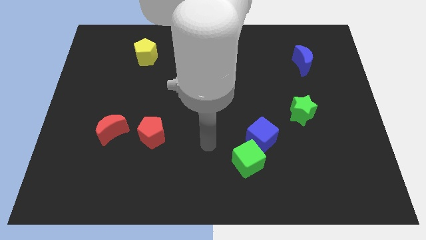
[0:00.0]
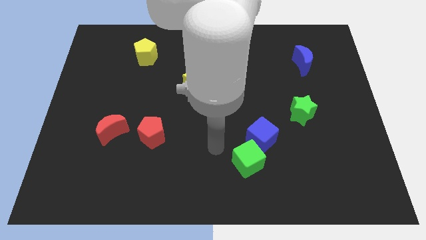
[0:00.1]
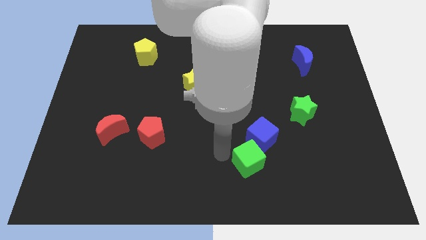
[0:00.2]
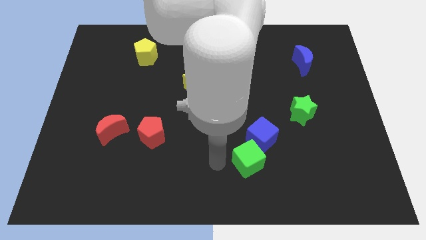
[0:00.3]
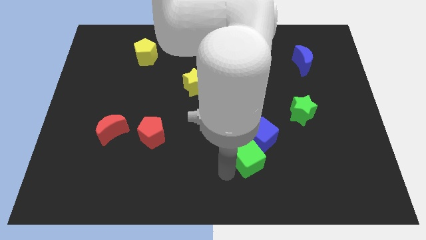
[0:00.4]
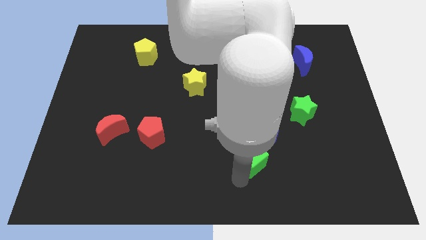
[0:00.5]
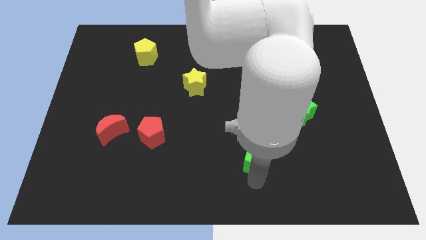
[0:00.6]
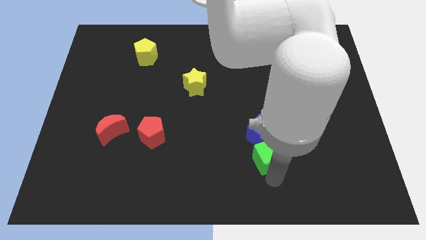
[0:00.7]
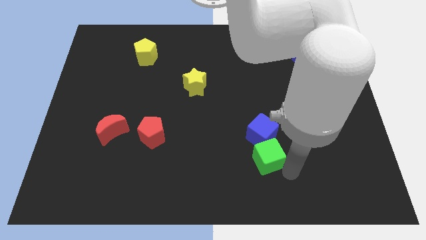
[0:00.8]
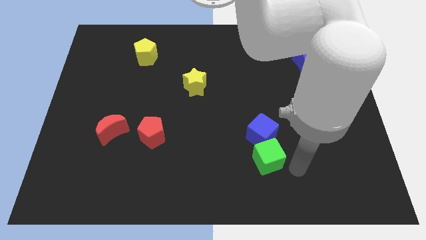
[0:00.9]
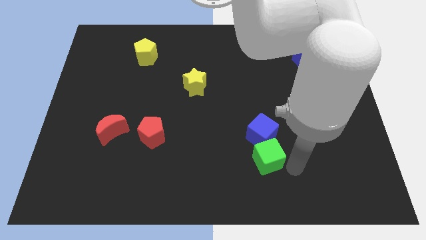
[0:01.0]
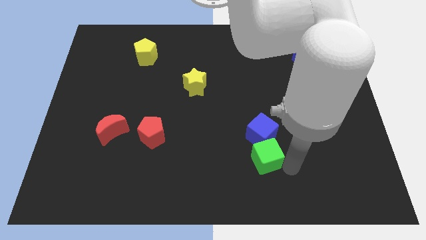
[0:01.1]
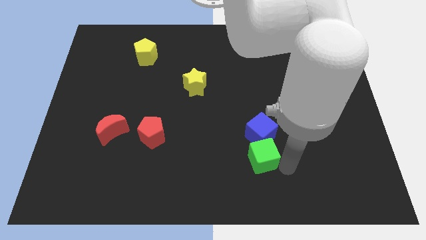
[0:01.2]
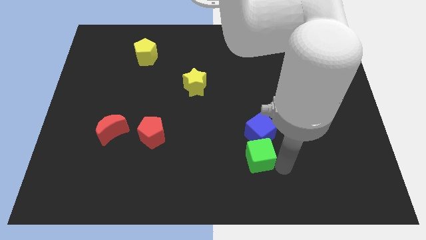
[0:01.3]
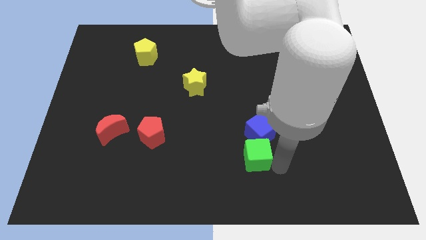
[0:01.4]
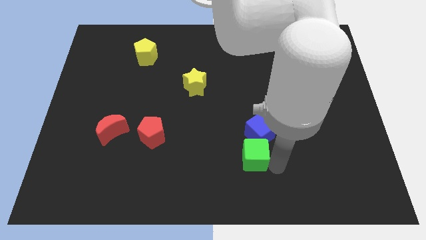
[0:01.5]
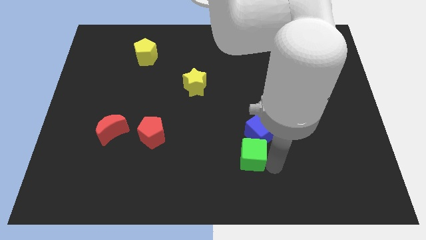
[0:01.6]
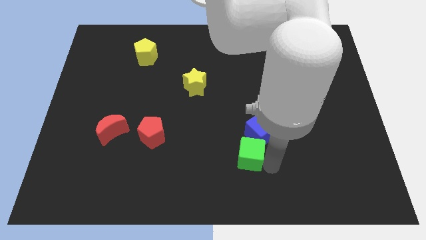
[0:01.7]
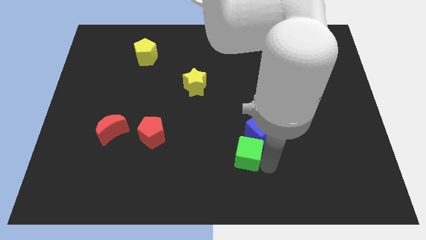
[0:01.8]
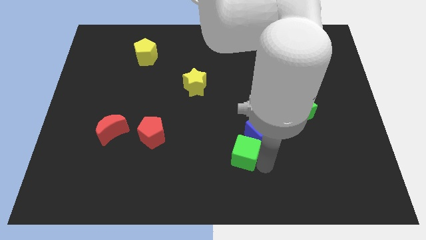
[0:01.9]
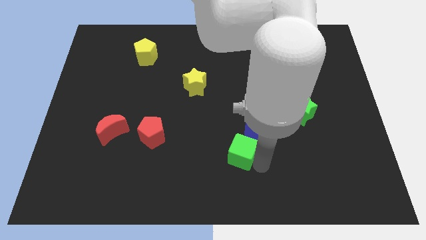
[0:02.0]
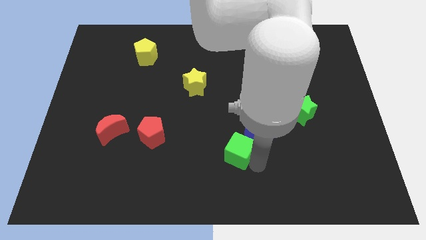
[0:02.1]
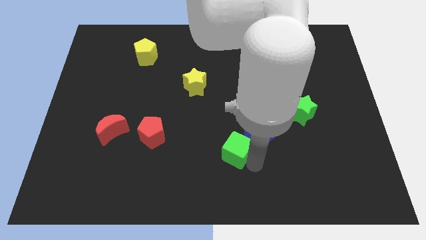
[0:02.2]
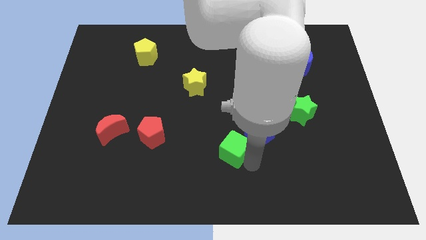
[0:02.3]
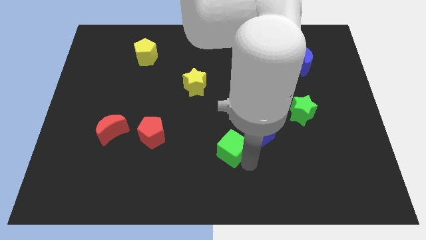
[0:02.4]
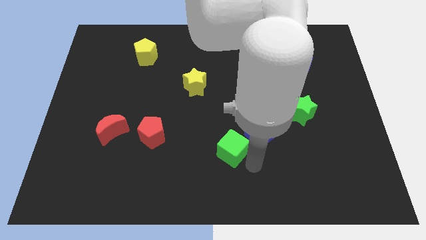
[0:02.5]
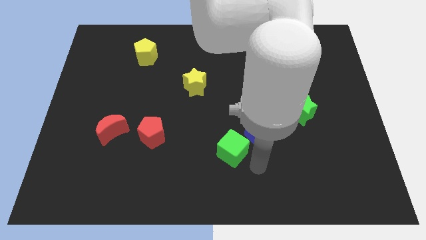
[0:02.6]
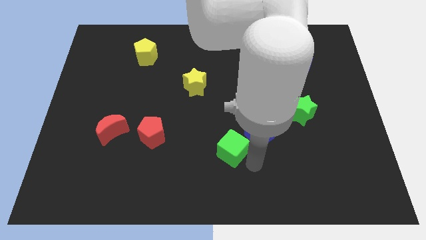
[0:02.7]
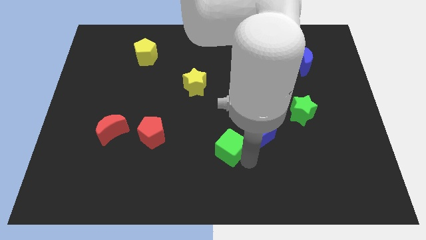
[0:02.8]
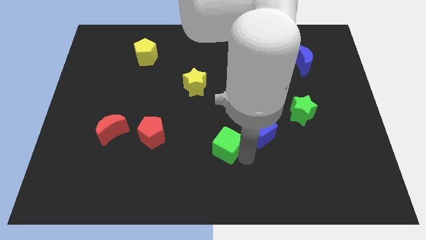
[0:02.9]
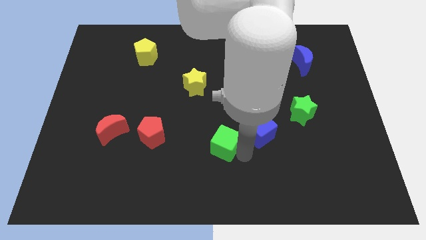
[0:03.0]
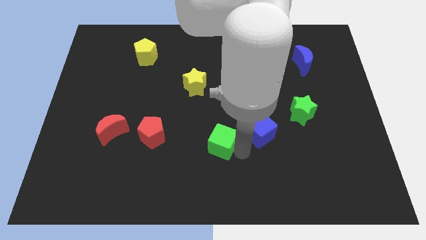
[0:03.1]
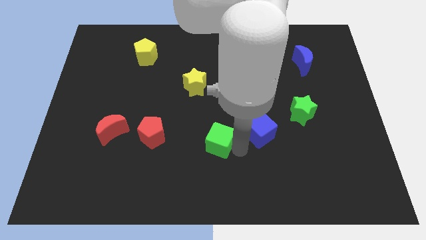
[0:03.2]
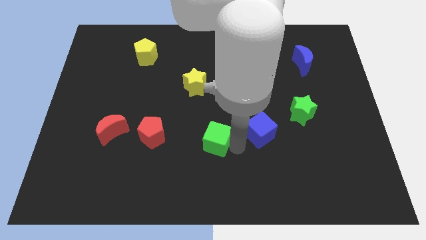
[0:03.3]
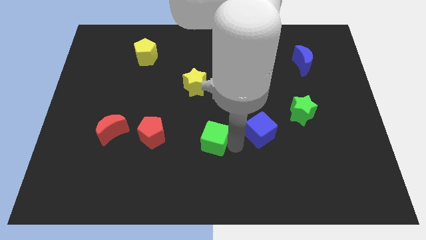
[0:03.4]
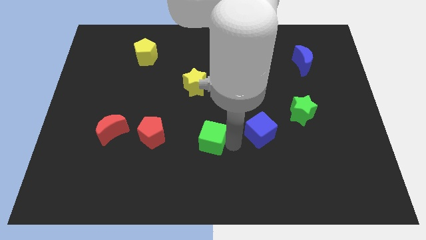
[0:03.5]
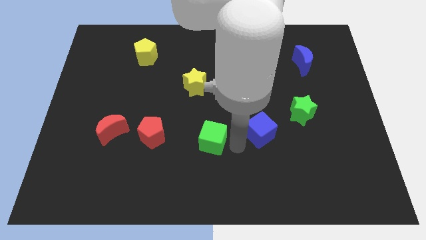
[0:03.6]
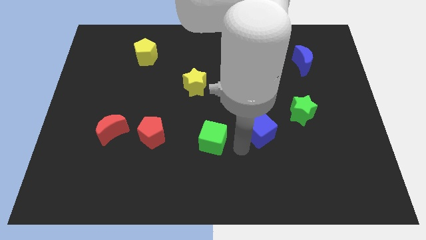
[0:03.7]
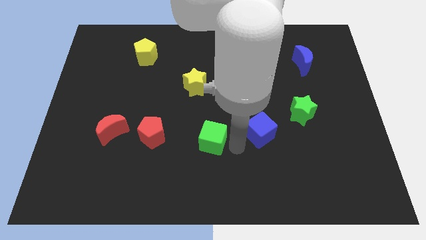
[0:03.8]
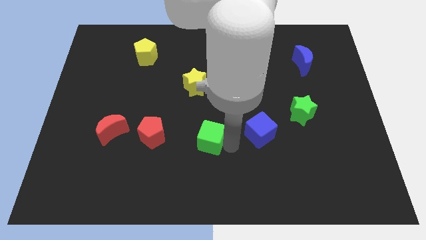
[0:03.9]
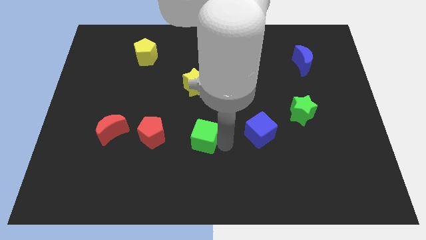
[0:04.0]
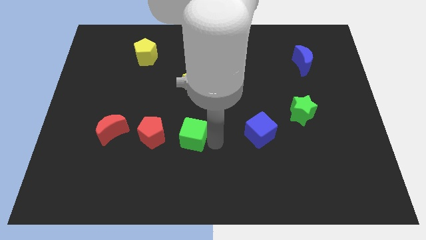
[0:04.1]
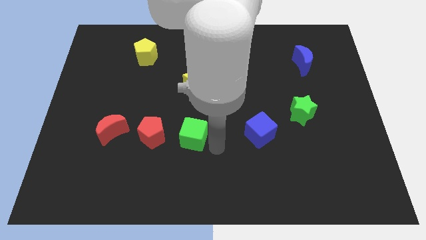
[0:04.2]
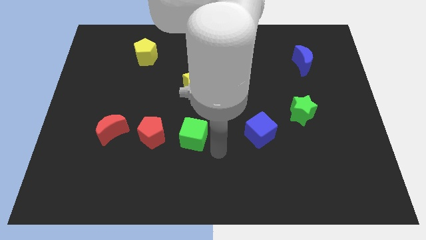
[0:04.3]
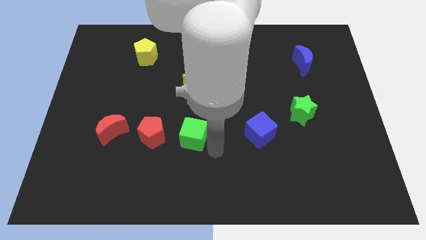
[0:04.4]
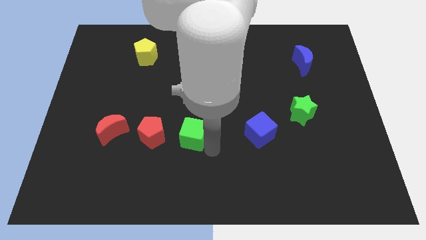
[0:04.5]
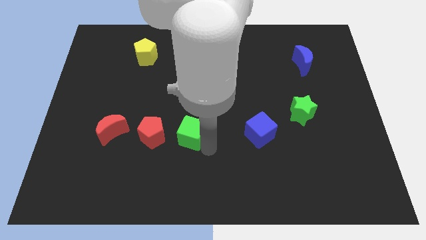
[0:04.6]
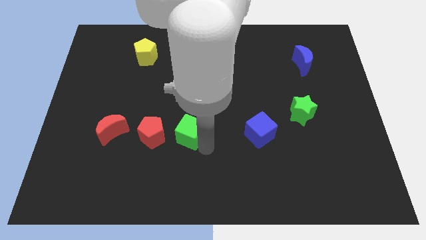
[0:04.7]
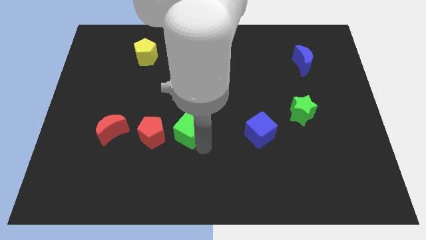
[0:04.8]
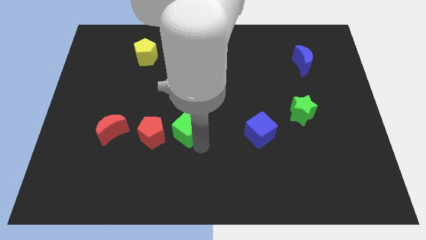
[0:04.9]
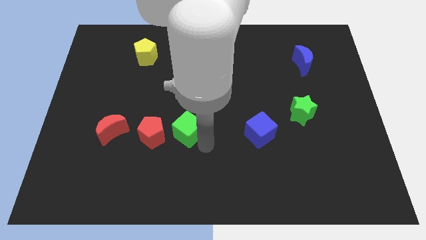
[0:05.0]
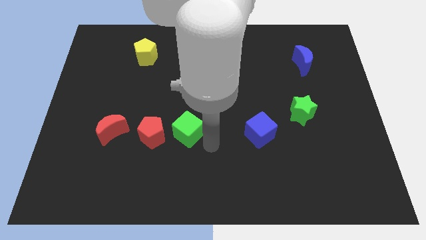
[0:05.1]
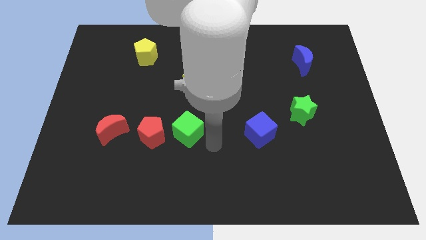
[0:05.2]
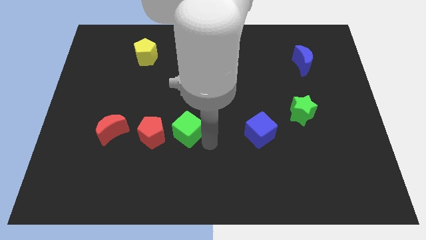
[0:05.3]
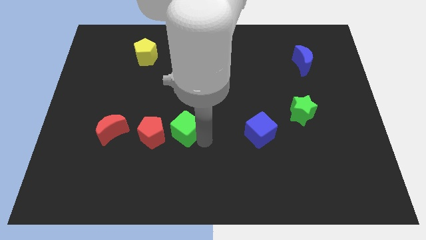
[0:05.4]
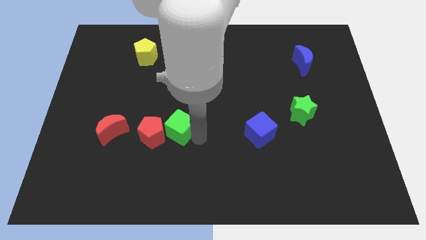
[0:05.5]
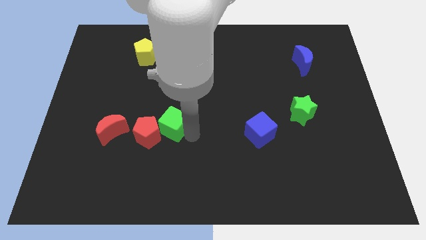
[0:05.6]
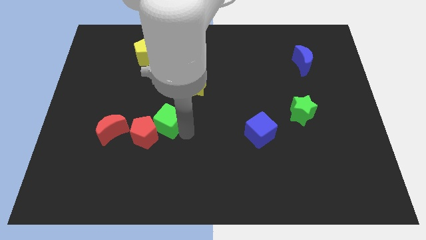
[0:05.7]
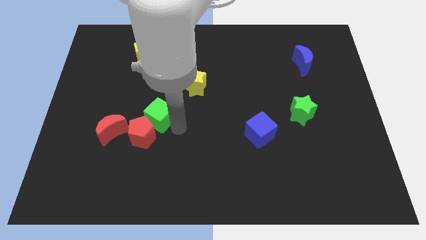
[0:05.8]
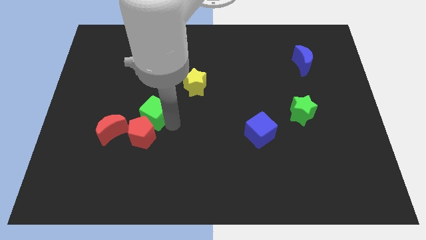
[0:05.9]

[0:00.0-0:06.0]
put the green cube diagonally up and to the right of the red moon

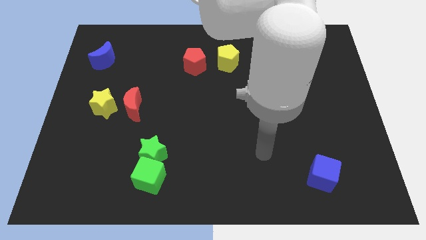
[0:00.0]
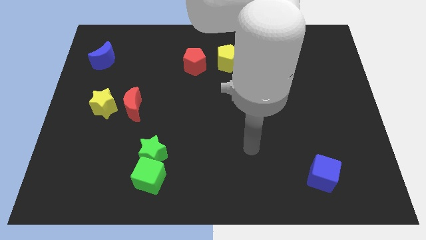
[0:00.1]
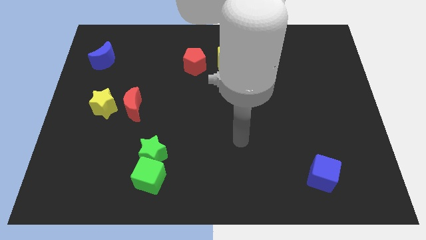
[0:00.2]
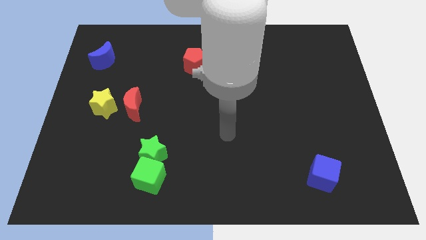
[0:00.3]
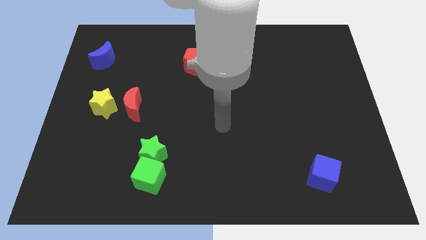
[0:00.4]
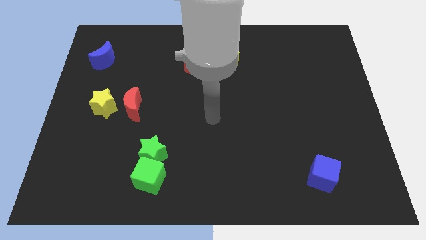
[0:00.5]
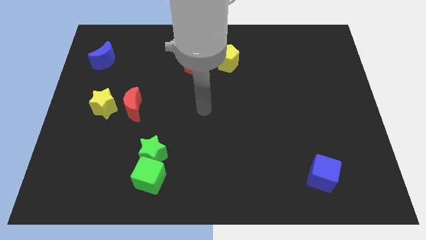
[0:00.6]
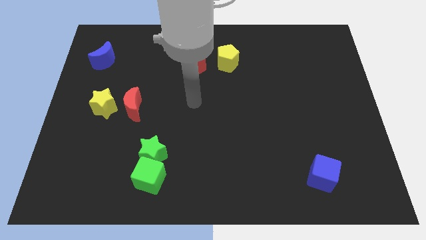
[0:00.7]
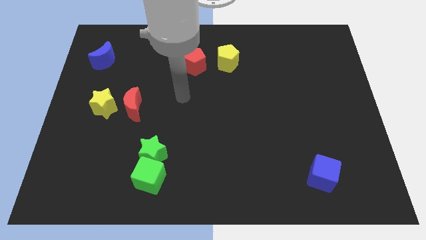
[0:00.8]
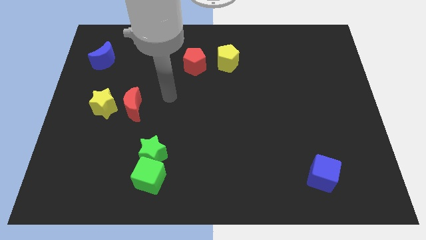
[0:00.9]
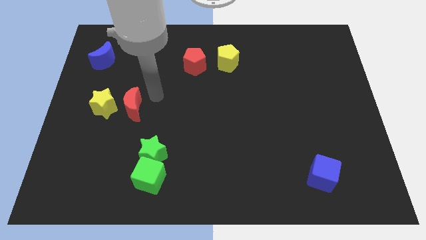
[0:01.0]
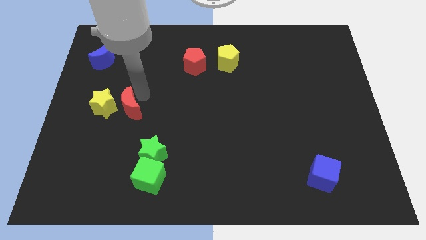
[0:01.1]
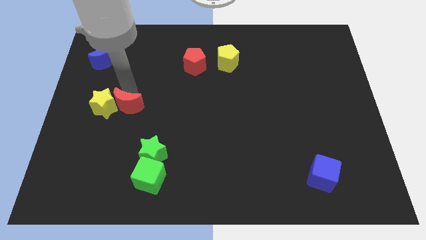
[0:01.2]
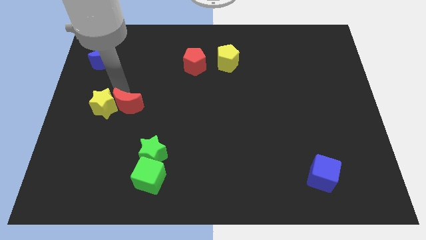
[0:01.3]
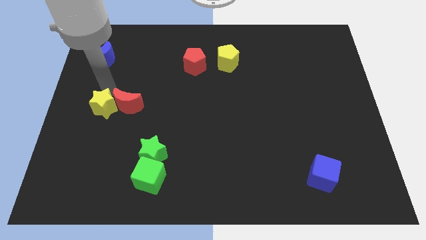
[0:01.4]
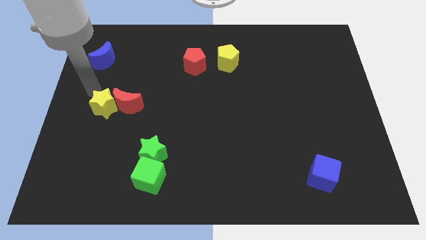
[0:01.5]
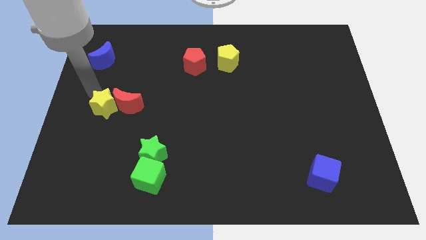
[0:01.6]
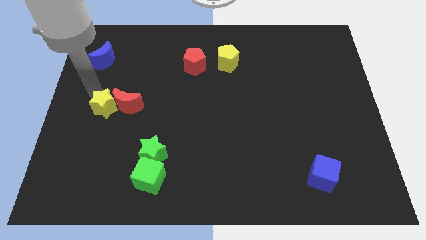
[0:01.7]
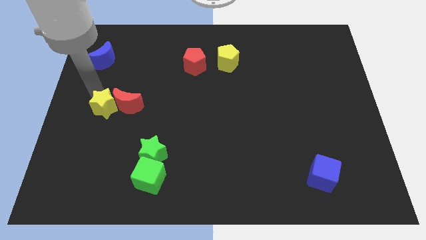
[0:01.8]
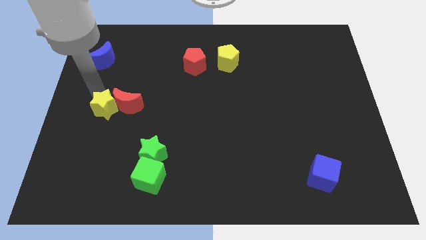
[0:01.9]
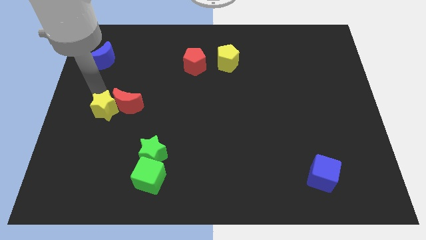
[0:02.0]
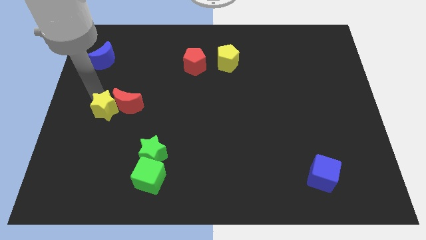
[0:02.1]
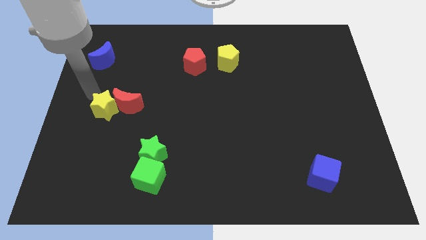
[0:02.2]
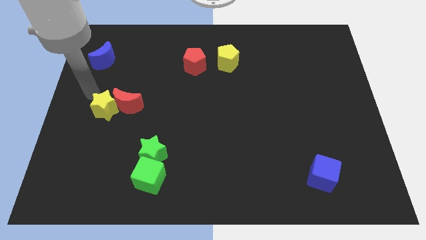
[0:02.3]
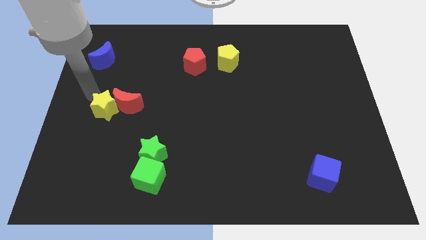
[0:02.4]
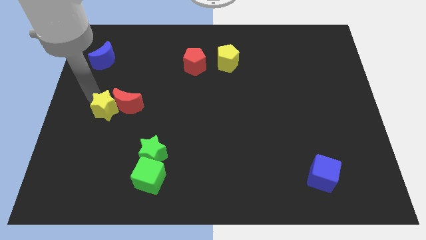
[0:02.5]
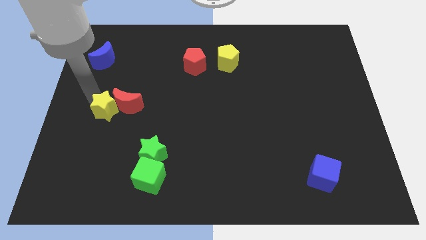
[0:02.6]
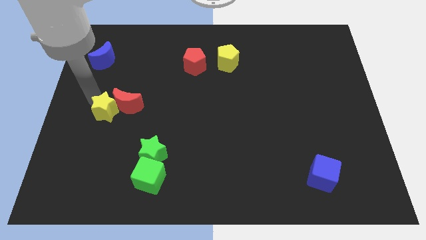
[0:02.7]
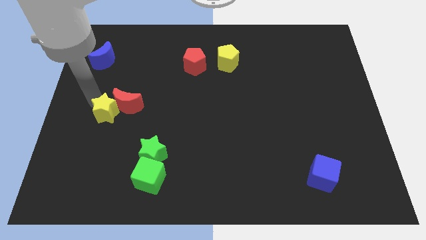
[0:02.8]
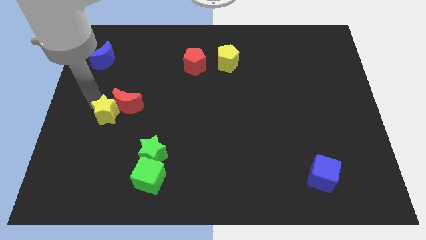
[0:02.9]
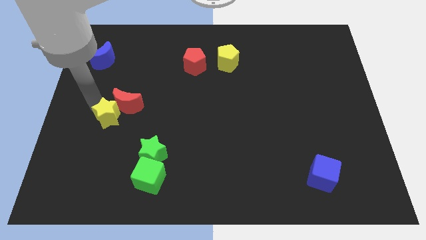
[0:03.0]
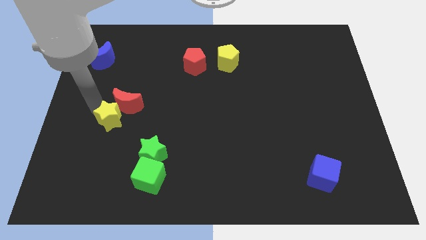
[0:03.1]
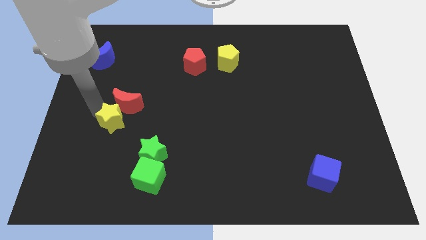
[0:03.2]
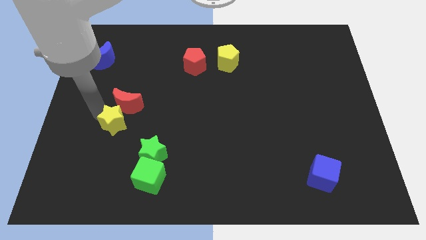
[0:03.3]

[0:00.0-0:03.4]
put the yellow star diagonally up and to the left of the green star
